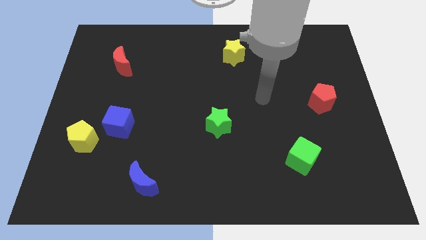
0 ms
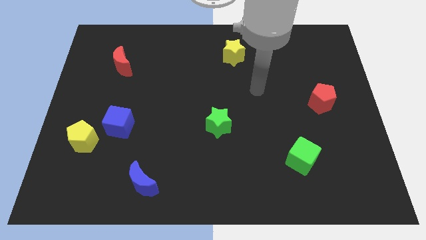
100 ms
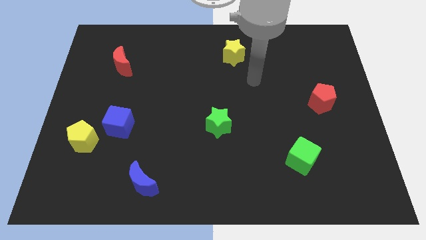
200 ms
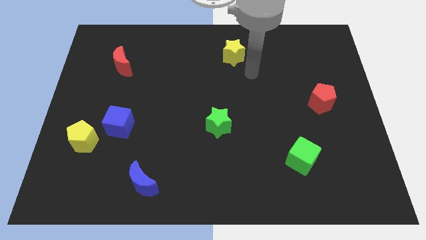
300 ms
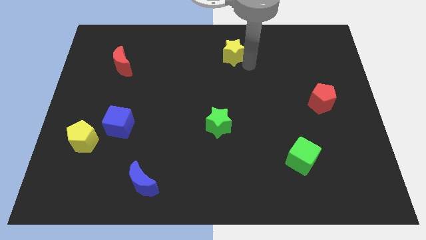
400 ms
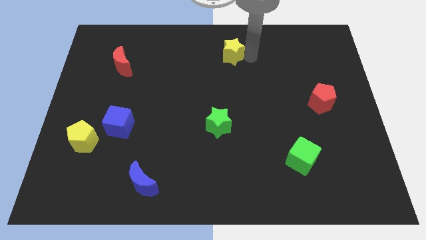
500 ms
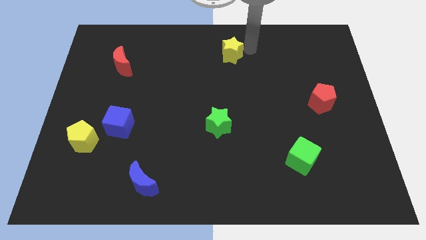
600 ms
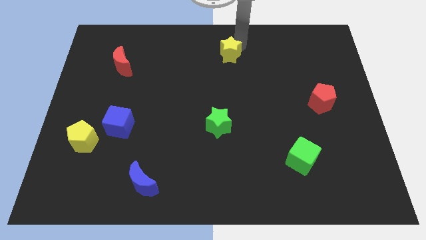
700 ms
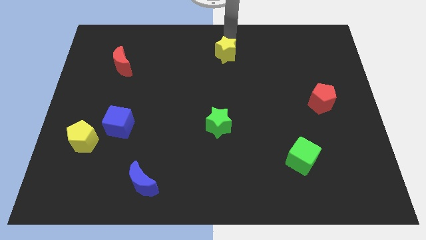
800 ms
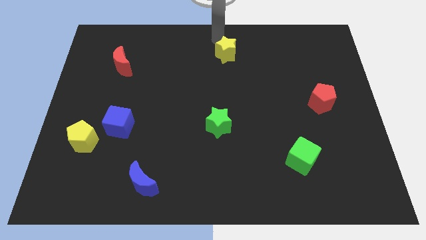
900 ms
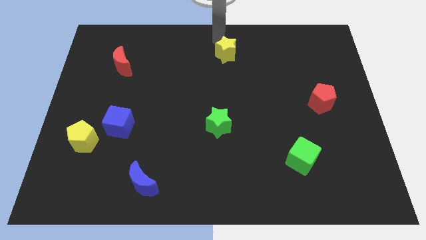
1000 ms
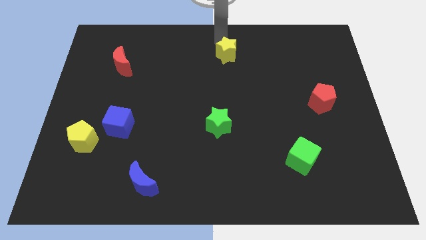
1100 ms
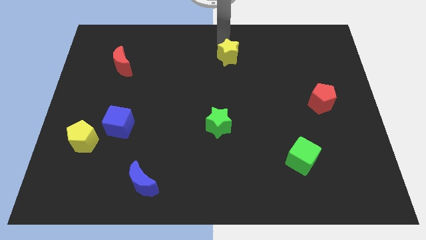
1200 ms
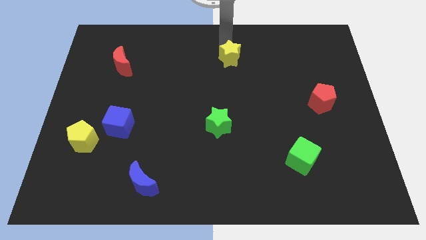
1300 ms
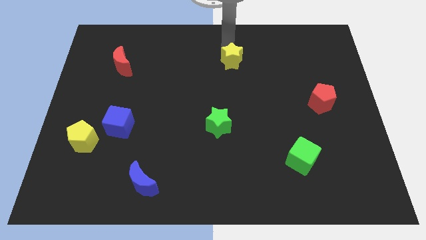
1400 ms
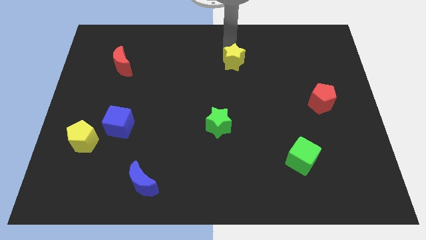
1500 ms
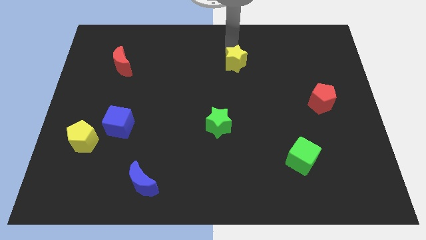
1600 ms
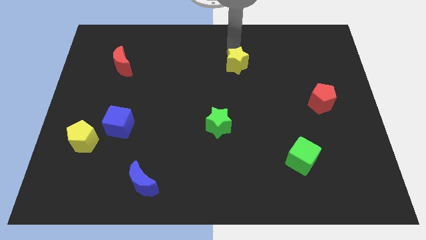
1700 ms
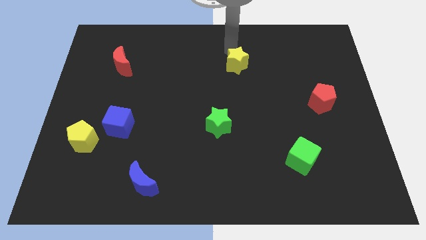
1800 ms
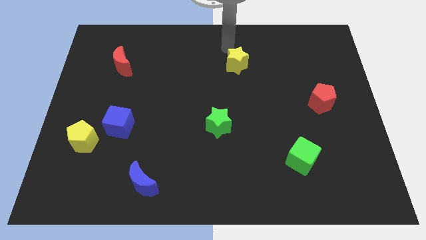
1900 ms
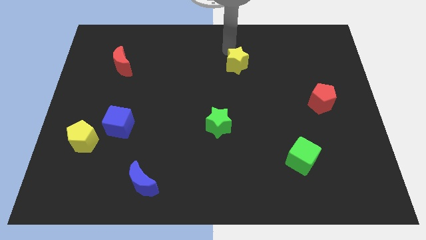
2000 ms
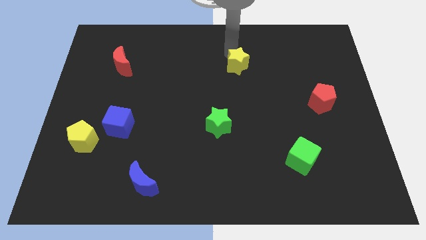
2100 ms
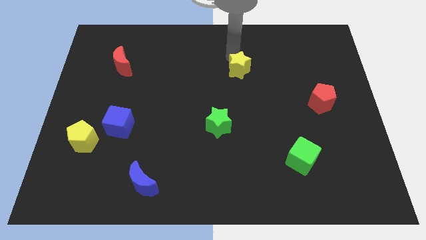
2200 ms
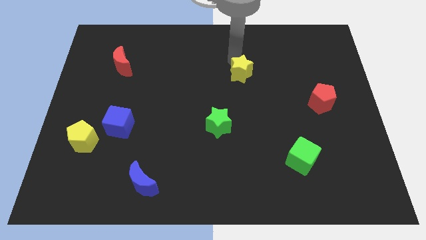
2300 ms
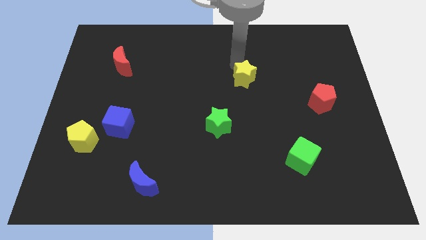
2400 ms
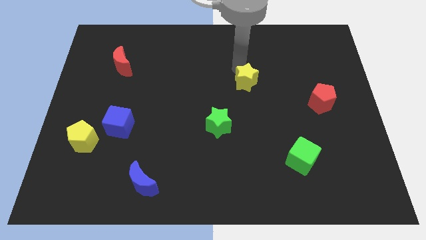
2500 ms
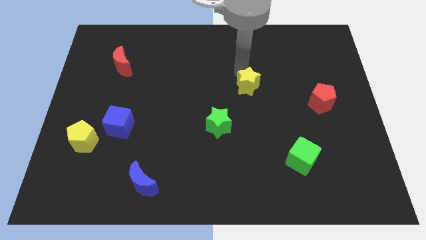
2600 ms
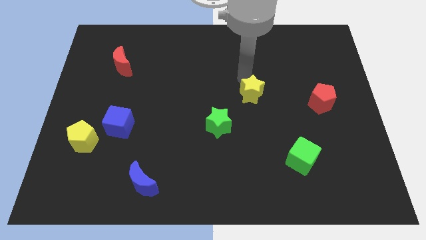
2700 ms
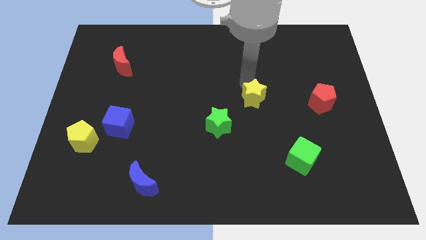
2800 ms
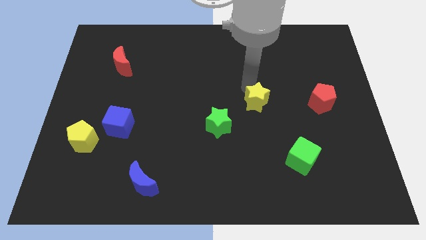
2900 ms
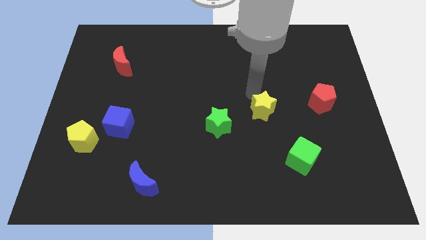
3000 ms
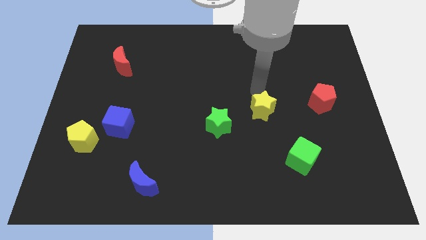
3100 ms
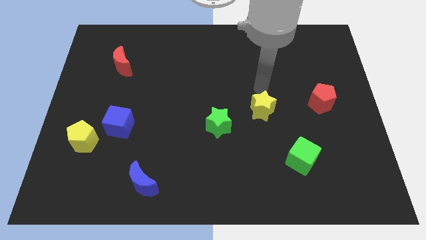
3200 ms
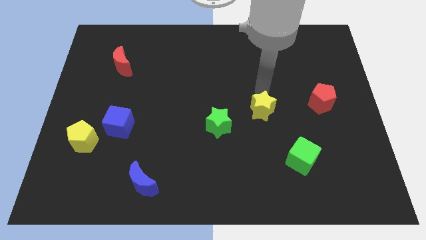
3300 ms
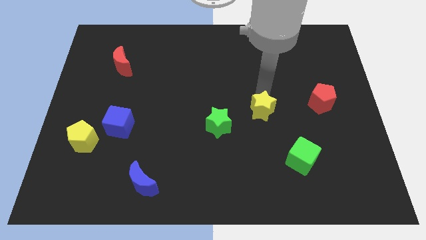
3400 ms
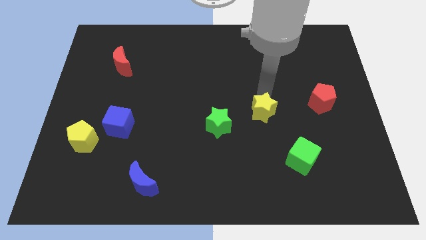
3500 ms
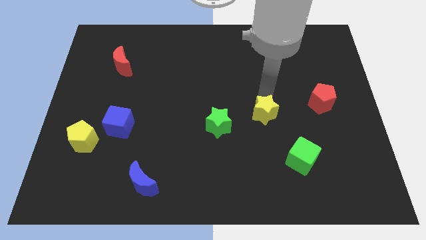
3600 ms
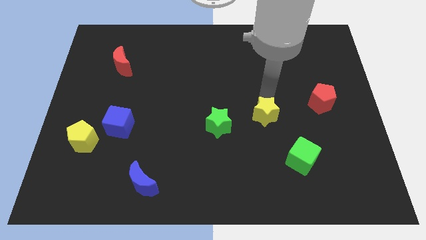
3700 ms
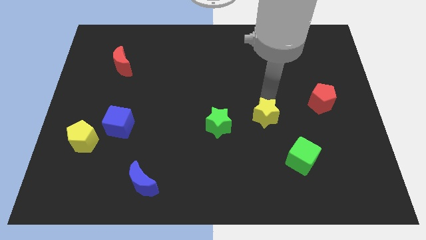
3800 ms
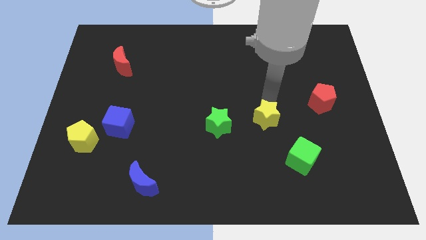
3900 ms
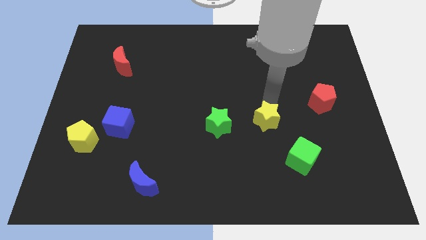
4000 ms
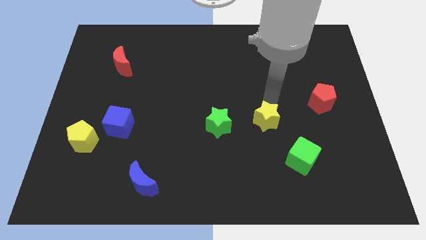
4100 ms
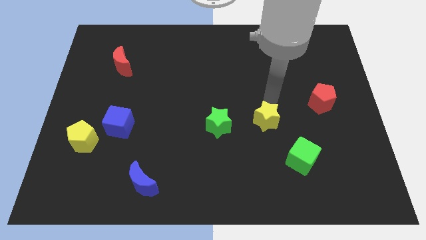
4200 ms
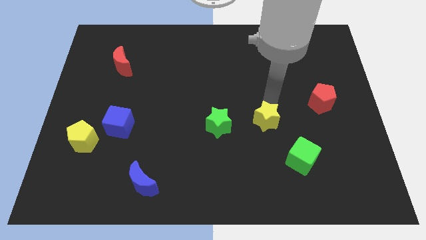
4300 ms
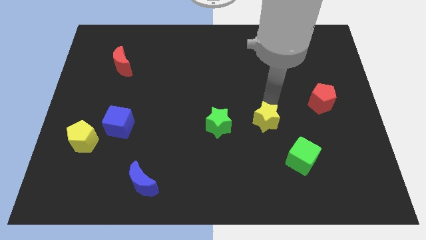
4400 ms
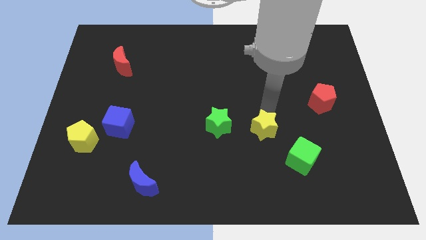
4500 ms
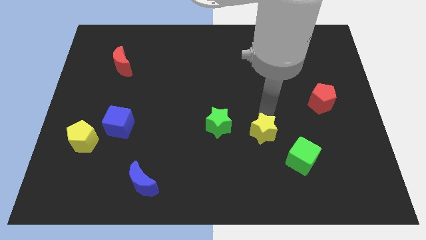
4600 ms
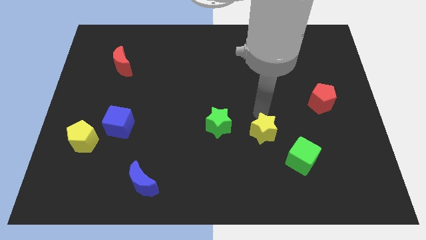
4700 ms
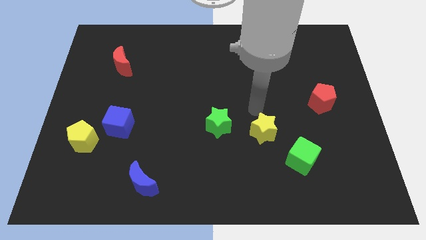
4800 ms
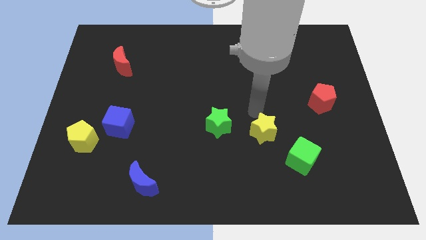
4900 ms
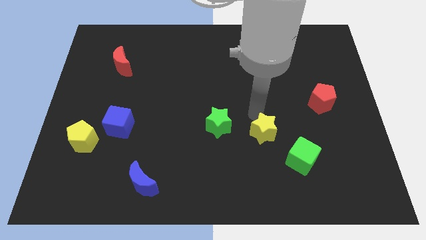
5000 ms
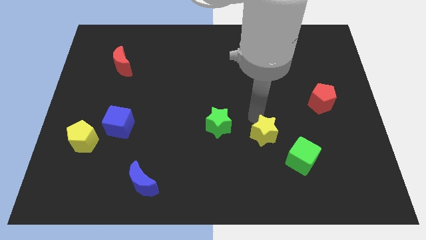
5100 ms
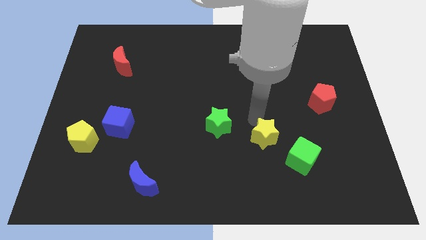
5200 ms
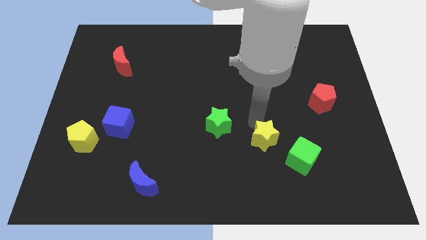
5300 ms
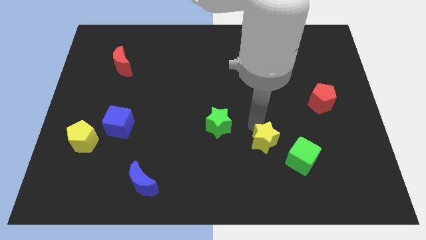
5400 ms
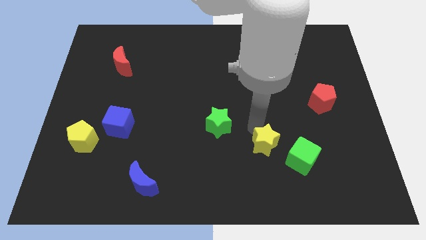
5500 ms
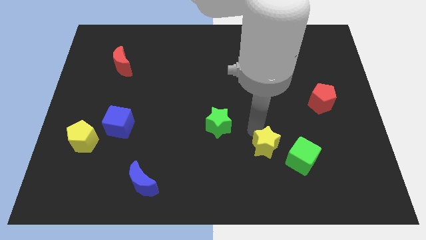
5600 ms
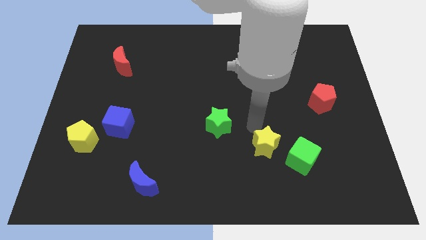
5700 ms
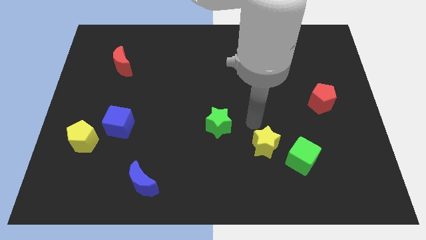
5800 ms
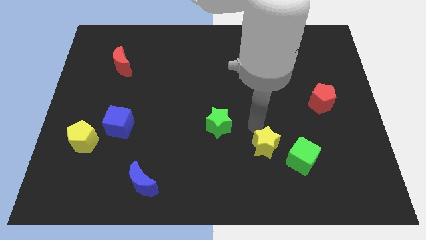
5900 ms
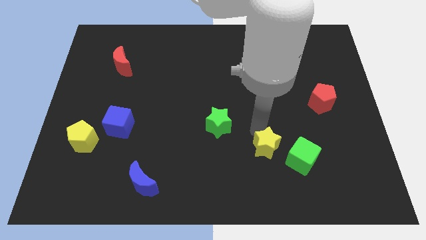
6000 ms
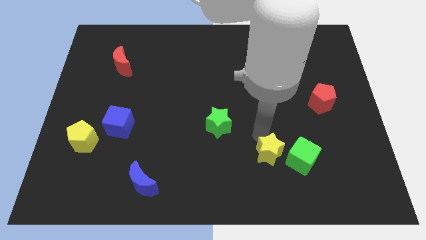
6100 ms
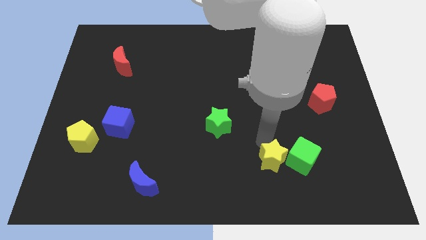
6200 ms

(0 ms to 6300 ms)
push the yellow star to the bottom left of the green cube

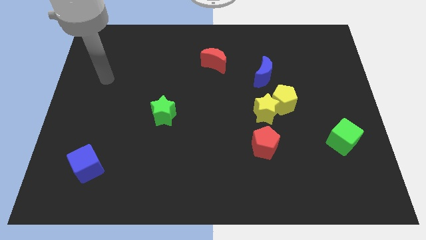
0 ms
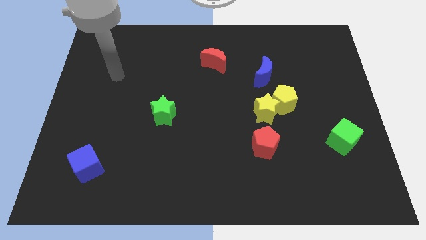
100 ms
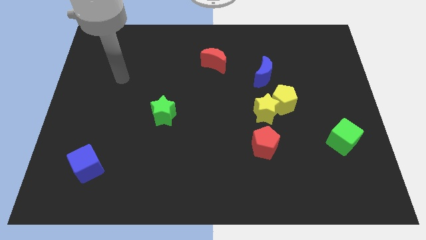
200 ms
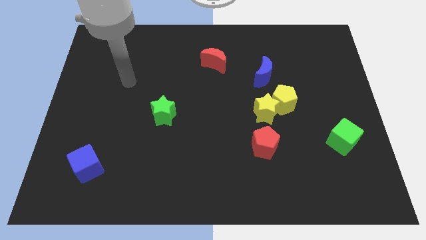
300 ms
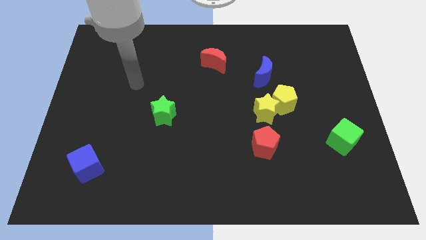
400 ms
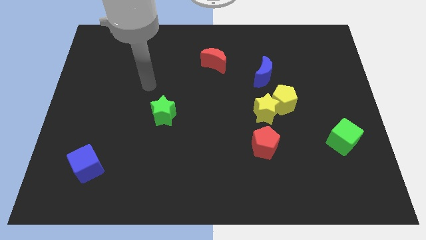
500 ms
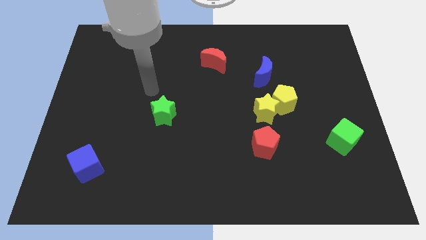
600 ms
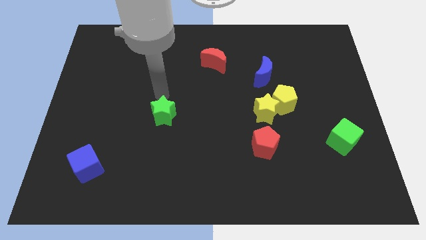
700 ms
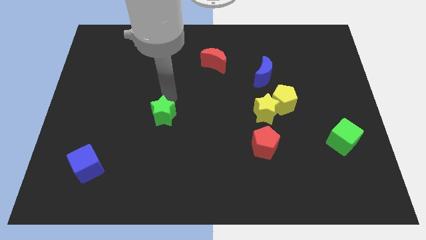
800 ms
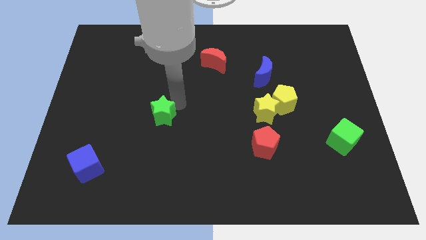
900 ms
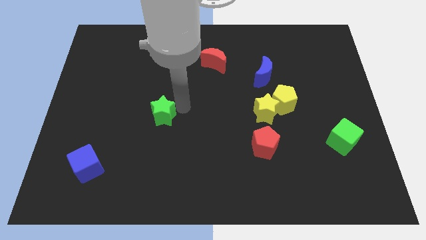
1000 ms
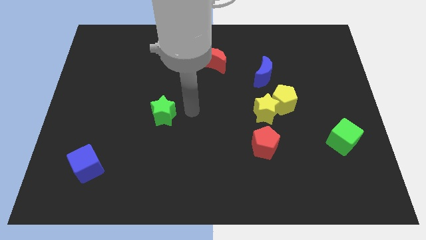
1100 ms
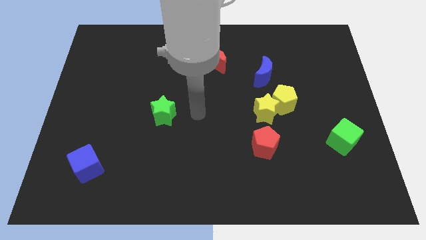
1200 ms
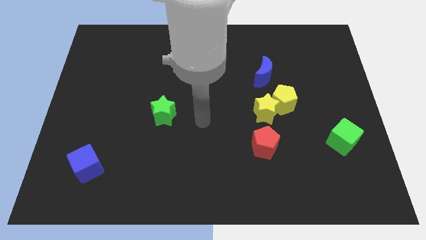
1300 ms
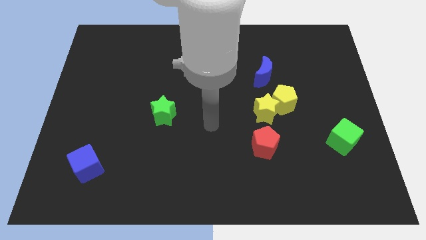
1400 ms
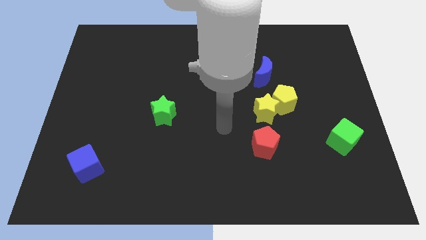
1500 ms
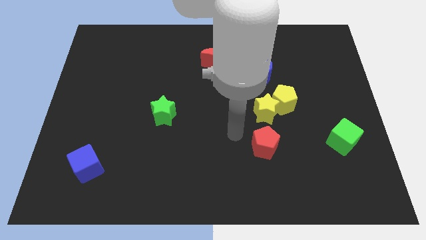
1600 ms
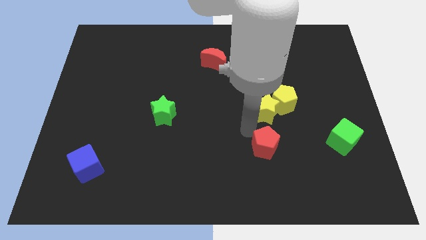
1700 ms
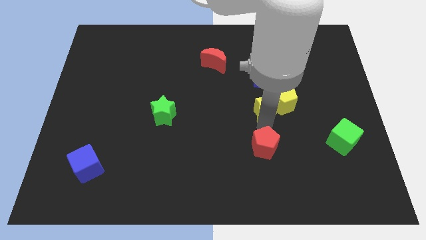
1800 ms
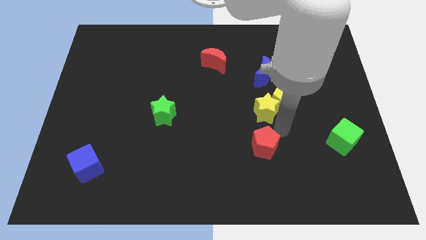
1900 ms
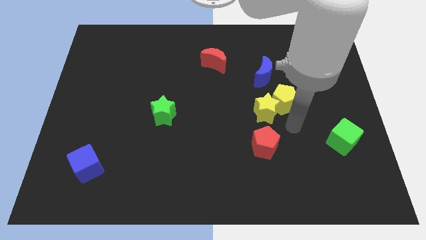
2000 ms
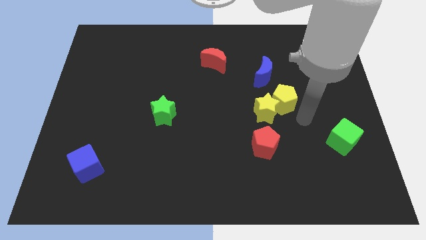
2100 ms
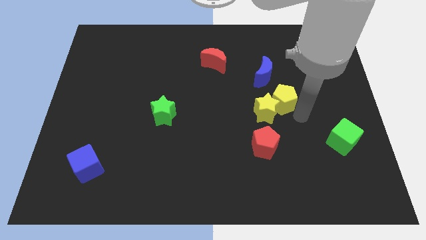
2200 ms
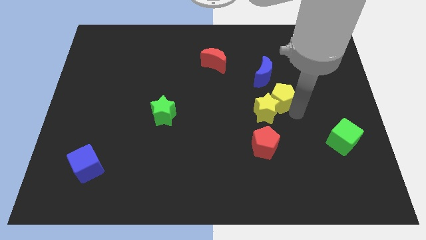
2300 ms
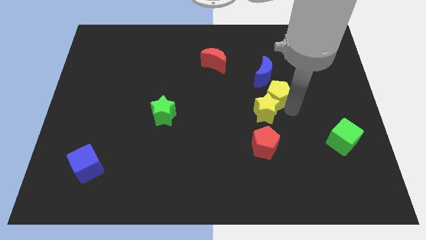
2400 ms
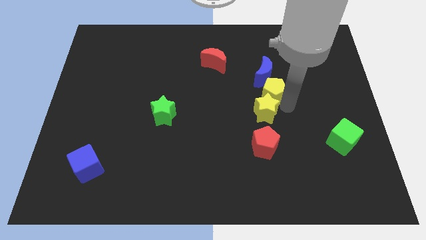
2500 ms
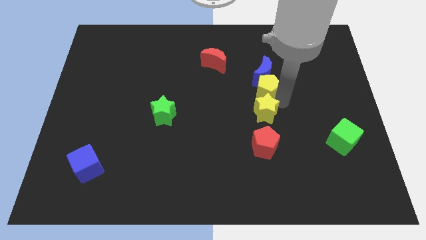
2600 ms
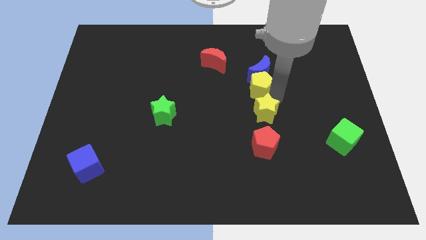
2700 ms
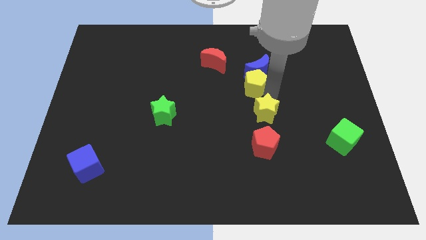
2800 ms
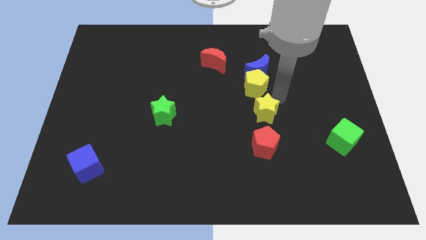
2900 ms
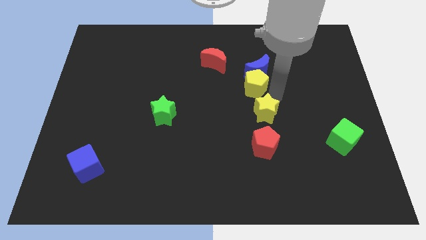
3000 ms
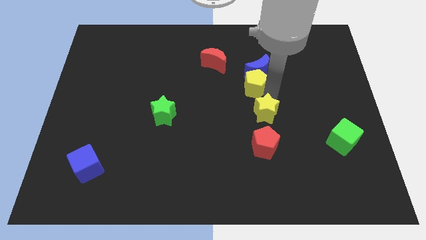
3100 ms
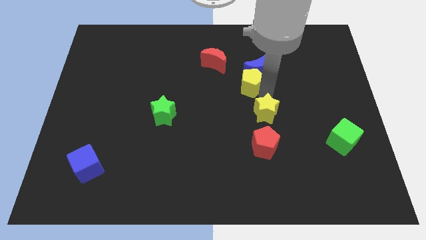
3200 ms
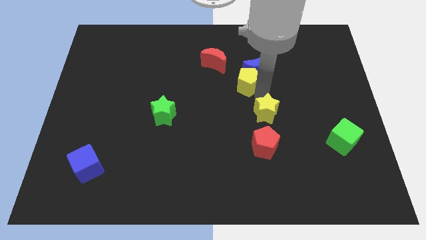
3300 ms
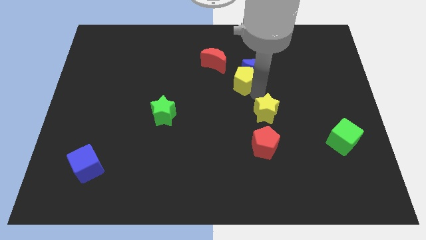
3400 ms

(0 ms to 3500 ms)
slide the yellow pentagon to the left of the blue moon
